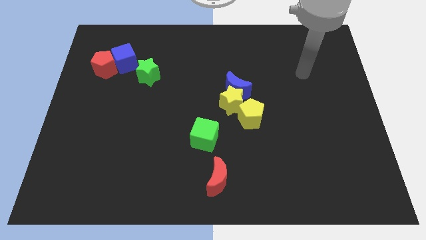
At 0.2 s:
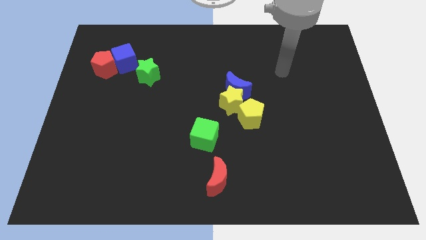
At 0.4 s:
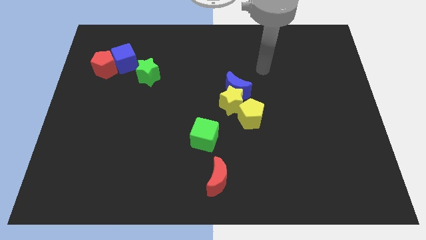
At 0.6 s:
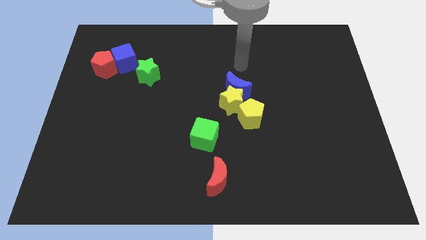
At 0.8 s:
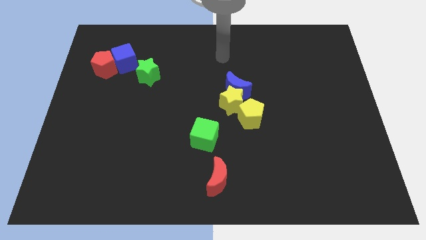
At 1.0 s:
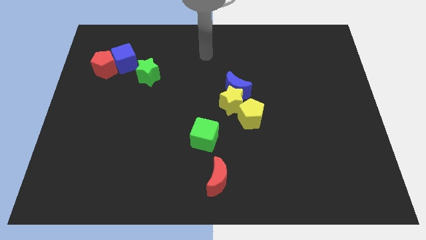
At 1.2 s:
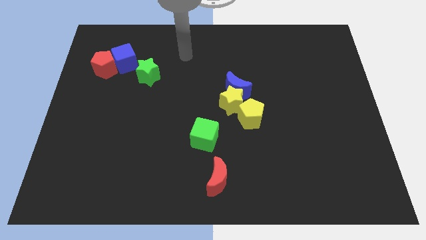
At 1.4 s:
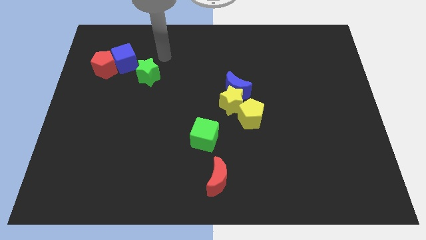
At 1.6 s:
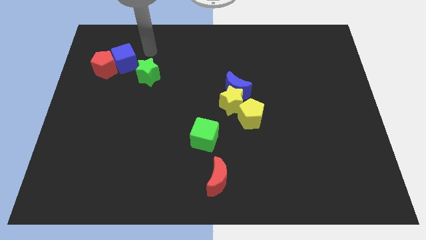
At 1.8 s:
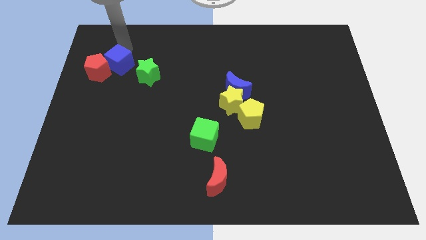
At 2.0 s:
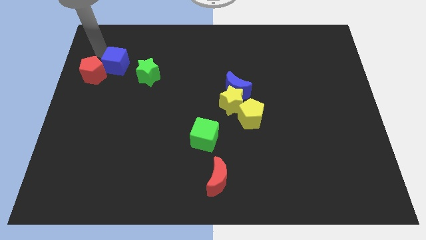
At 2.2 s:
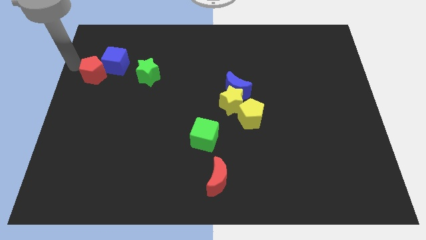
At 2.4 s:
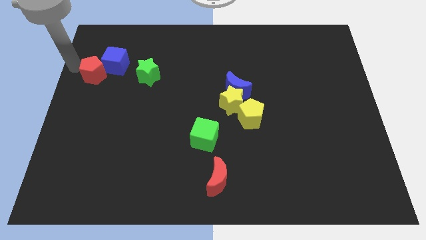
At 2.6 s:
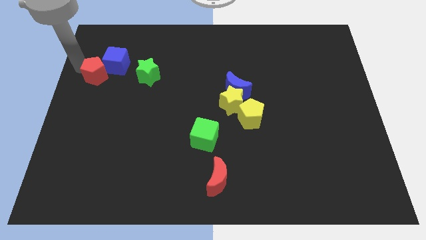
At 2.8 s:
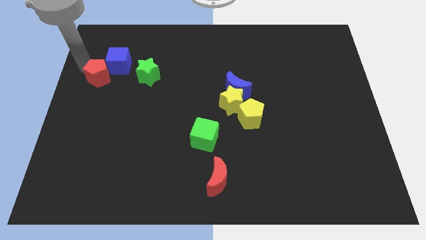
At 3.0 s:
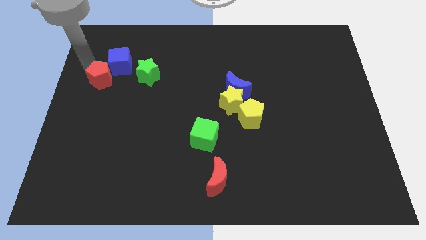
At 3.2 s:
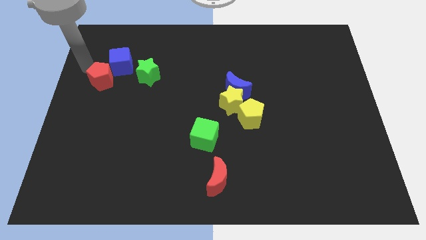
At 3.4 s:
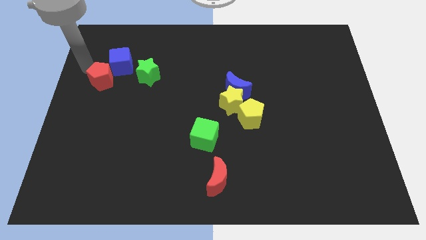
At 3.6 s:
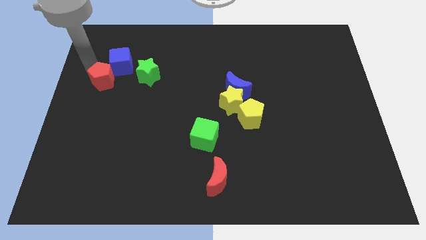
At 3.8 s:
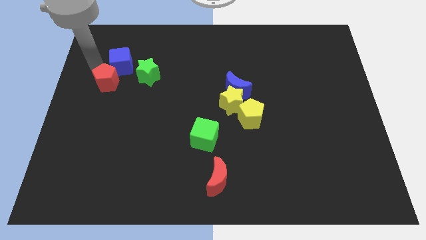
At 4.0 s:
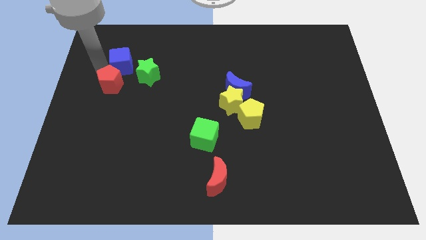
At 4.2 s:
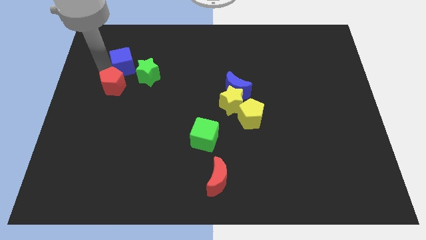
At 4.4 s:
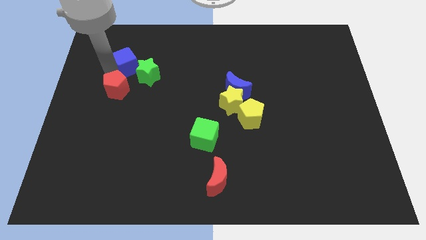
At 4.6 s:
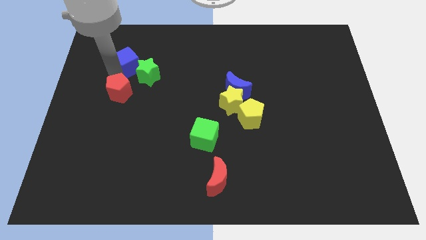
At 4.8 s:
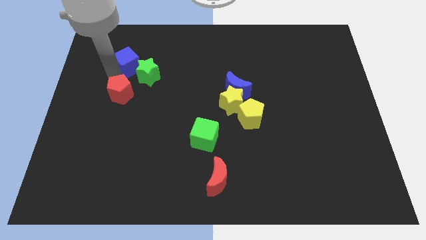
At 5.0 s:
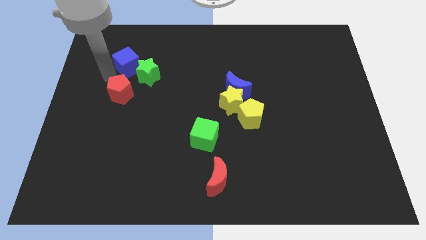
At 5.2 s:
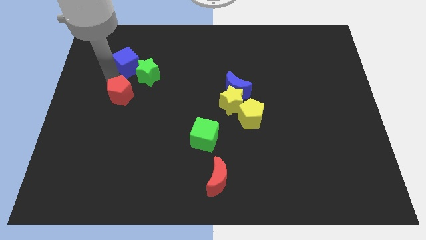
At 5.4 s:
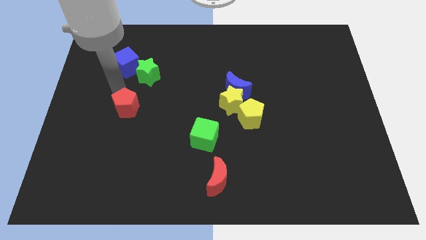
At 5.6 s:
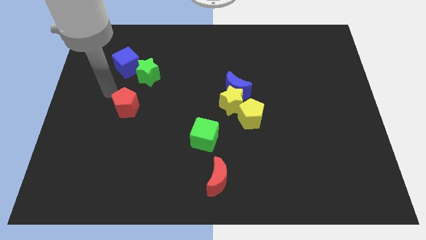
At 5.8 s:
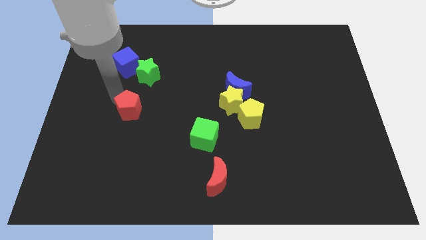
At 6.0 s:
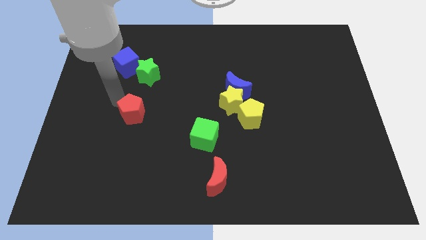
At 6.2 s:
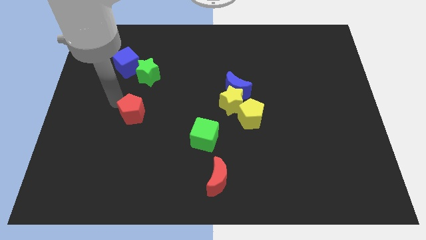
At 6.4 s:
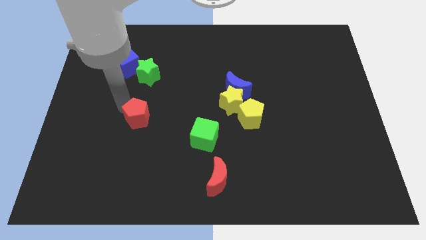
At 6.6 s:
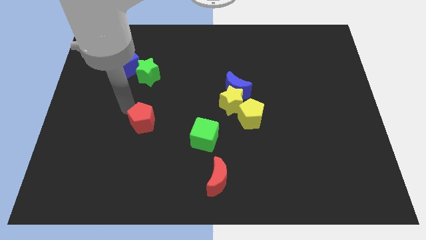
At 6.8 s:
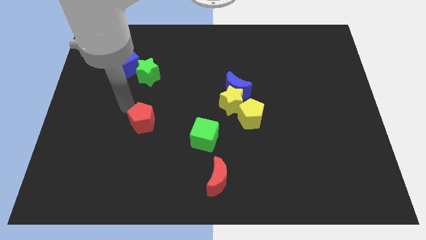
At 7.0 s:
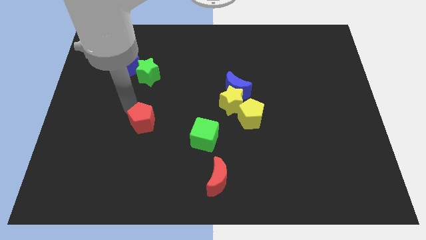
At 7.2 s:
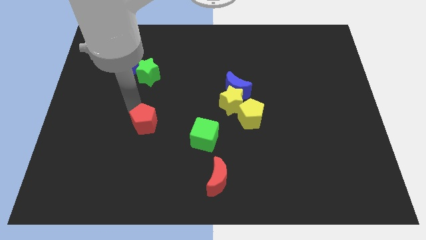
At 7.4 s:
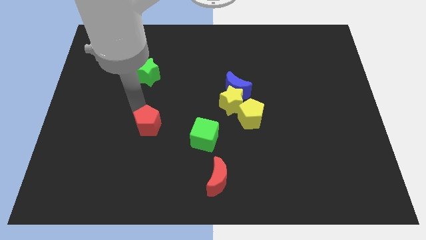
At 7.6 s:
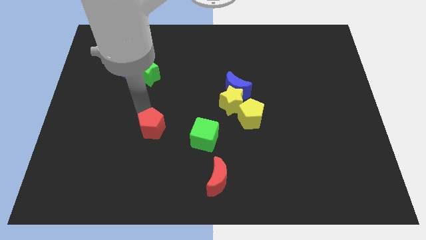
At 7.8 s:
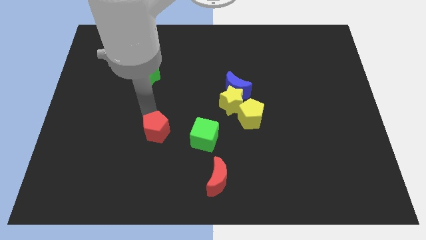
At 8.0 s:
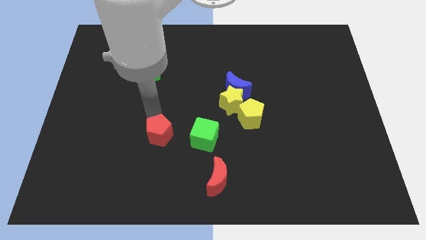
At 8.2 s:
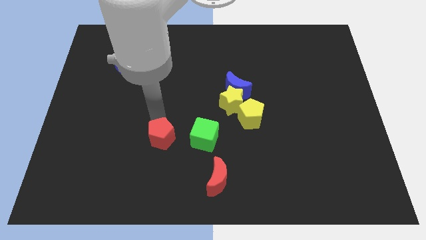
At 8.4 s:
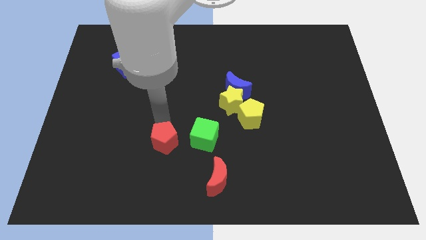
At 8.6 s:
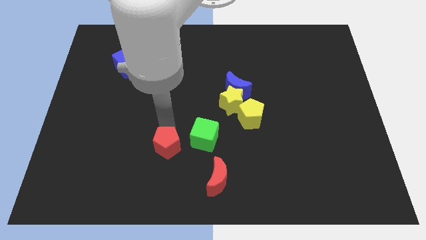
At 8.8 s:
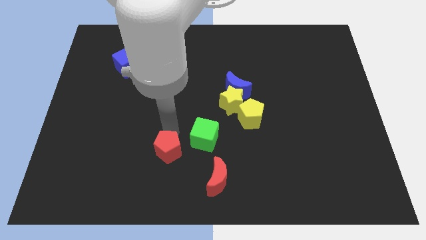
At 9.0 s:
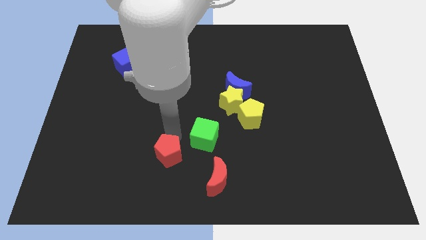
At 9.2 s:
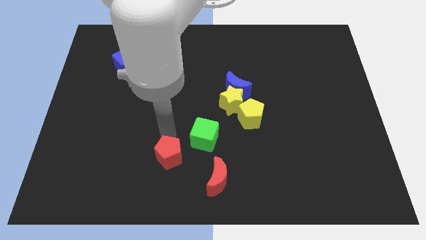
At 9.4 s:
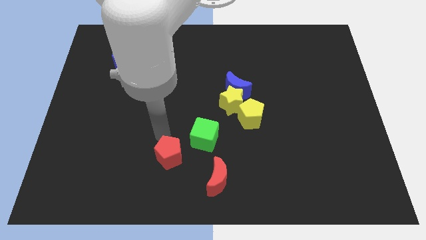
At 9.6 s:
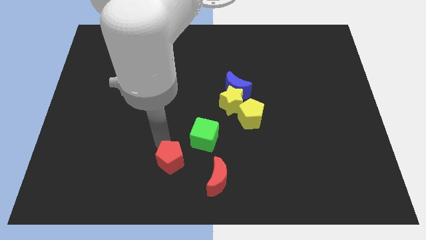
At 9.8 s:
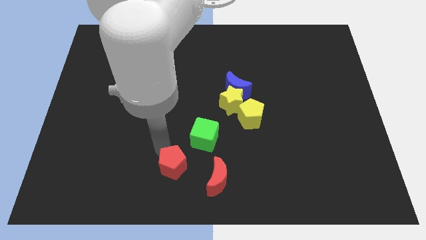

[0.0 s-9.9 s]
put the red pentagon to the bottom

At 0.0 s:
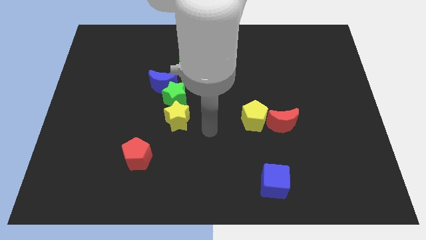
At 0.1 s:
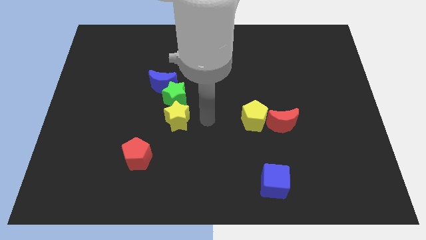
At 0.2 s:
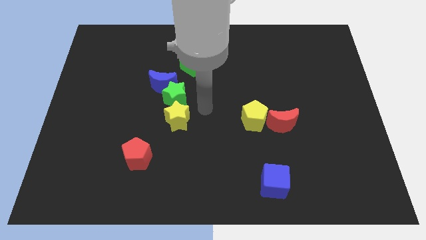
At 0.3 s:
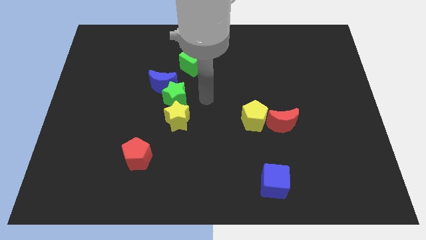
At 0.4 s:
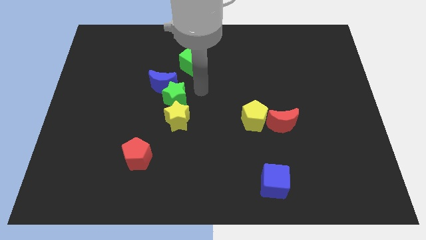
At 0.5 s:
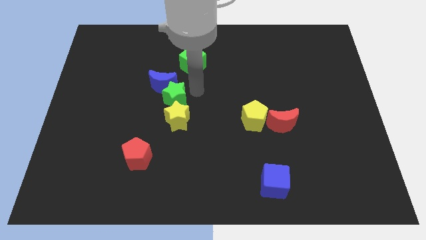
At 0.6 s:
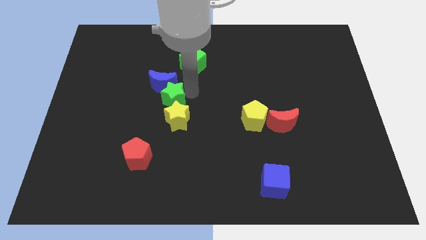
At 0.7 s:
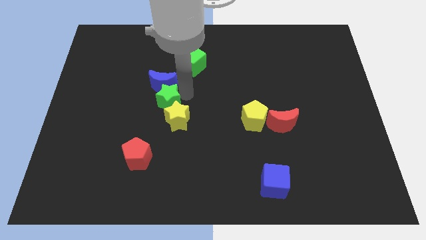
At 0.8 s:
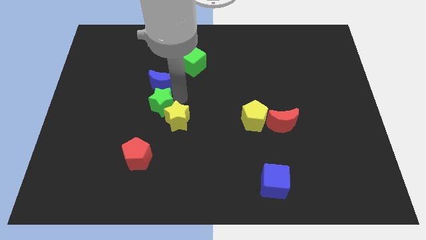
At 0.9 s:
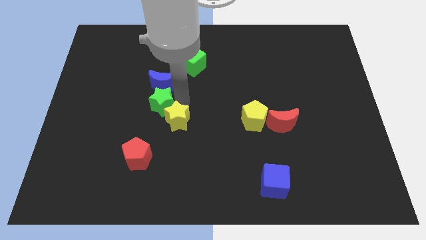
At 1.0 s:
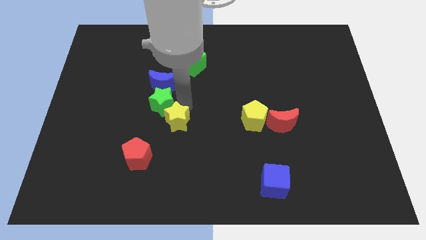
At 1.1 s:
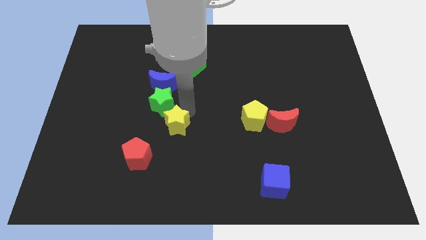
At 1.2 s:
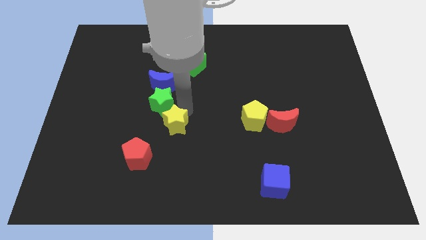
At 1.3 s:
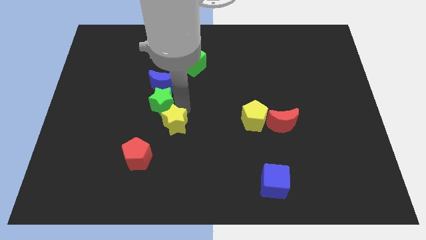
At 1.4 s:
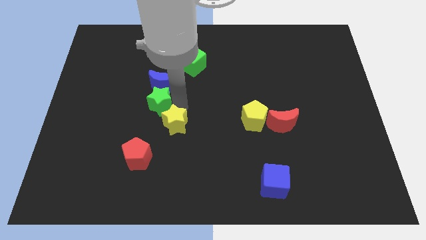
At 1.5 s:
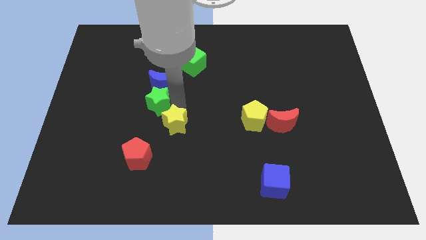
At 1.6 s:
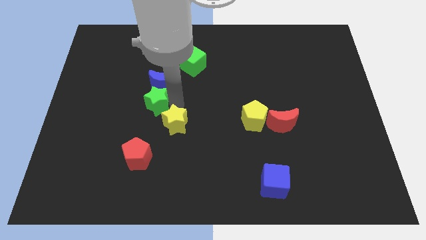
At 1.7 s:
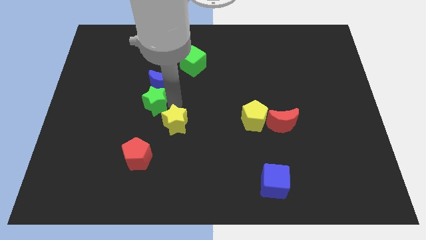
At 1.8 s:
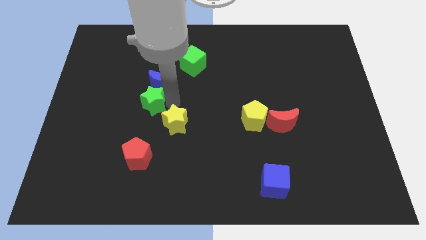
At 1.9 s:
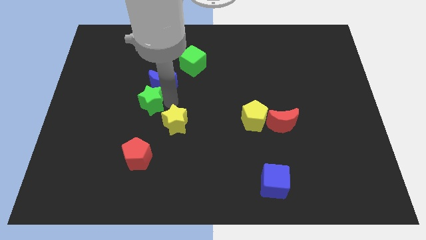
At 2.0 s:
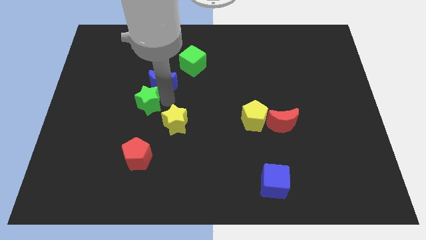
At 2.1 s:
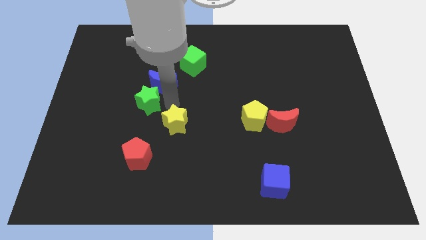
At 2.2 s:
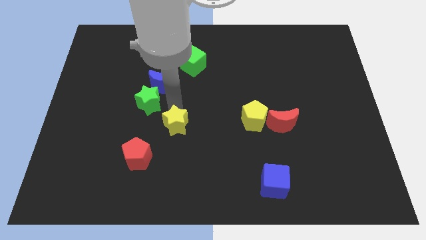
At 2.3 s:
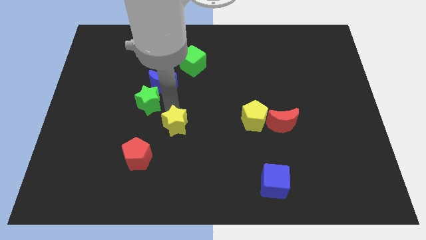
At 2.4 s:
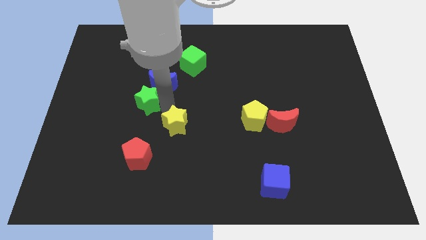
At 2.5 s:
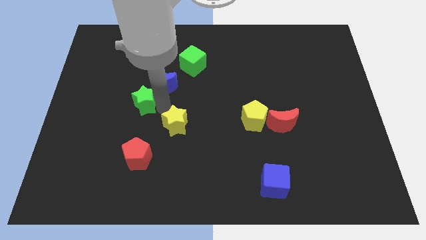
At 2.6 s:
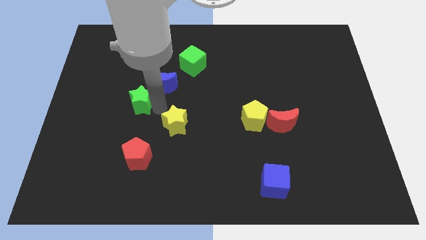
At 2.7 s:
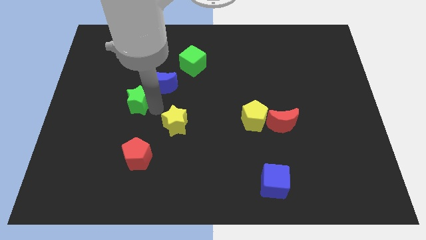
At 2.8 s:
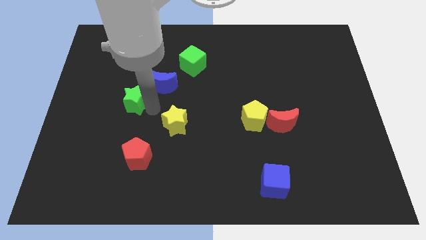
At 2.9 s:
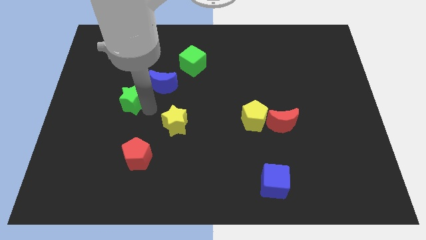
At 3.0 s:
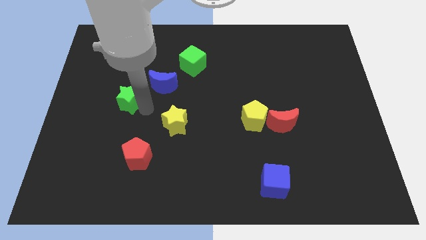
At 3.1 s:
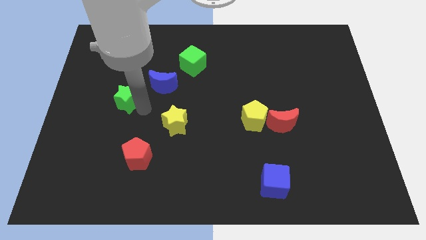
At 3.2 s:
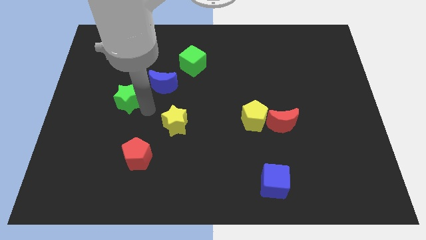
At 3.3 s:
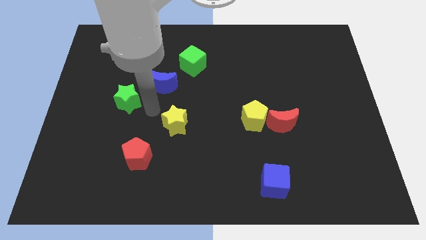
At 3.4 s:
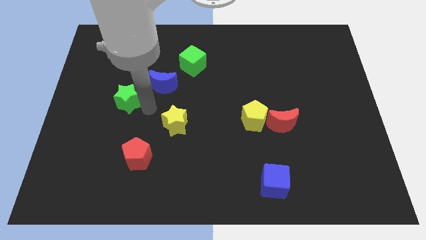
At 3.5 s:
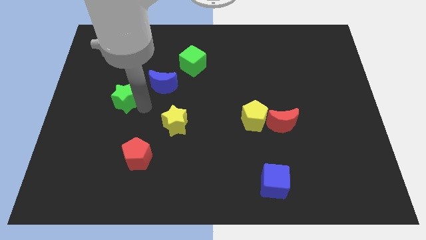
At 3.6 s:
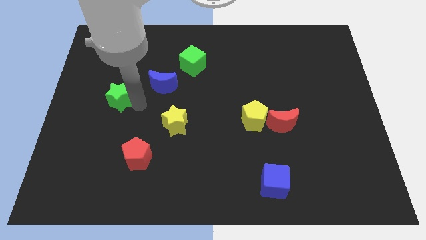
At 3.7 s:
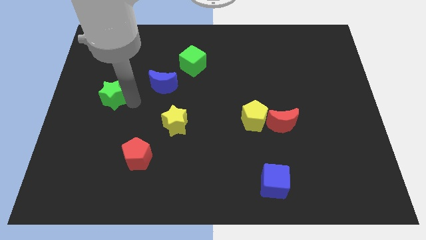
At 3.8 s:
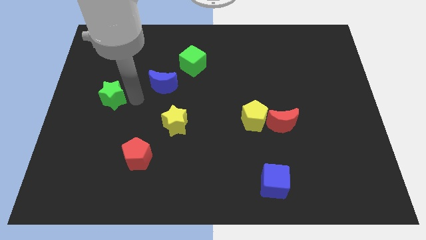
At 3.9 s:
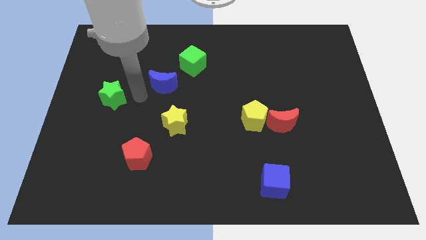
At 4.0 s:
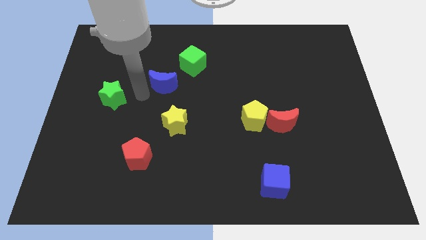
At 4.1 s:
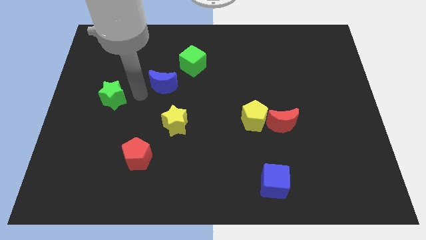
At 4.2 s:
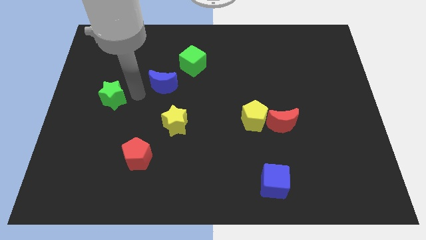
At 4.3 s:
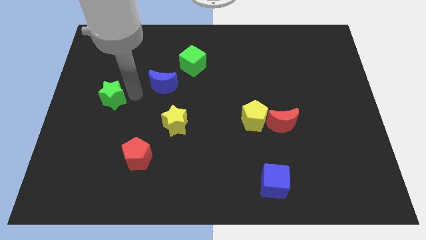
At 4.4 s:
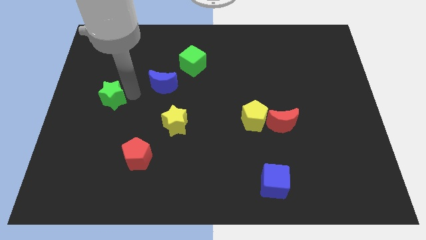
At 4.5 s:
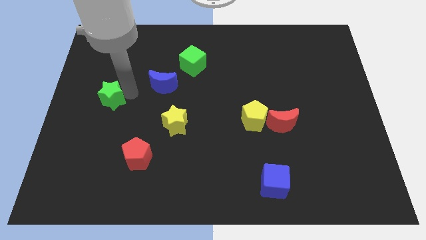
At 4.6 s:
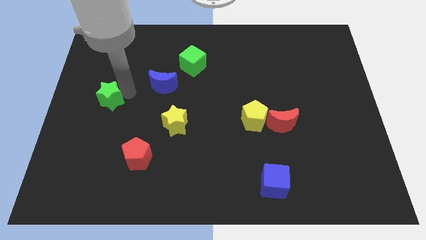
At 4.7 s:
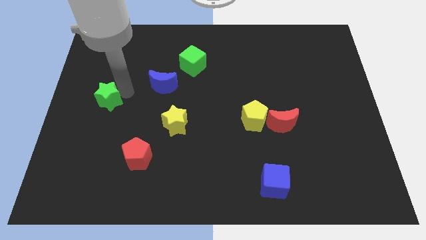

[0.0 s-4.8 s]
put the green star to the left side
